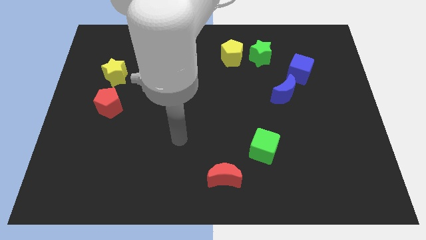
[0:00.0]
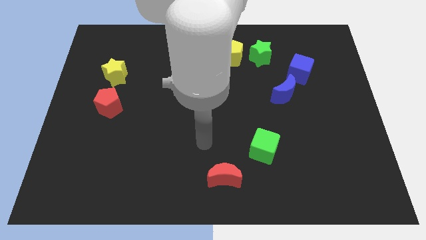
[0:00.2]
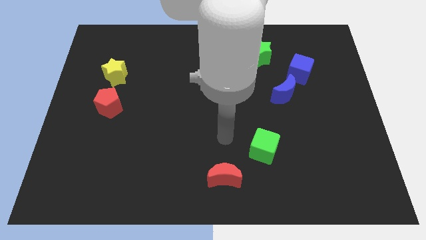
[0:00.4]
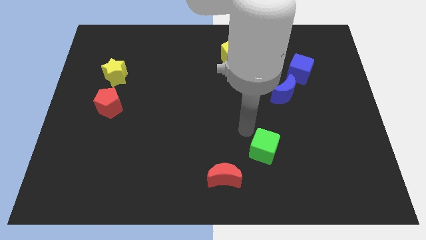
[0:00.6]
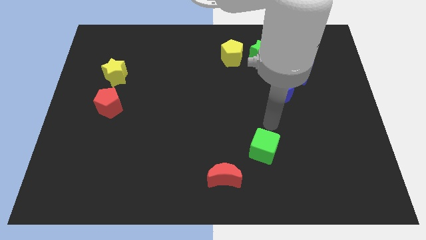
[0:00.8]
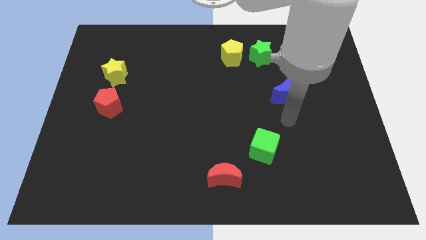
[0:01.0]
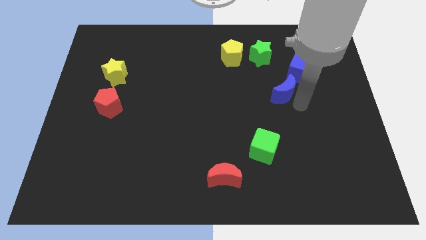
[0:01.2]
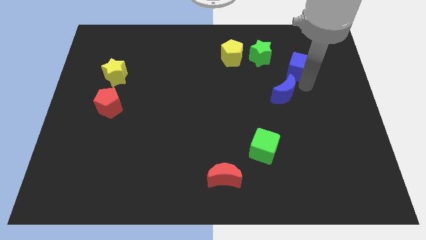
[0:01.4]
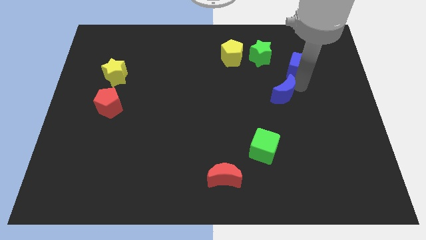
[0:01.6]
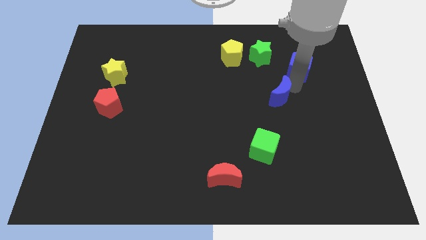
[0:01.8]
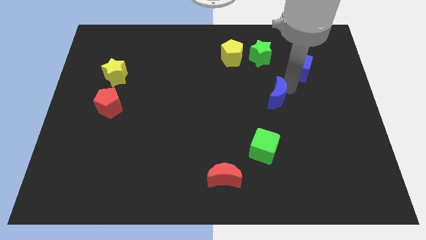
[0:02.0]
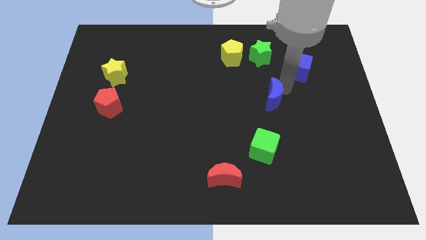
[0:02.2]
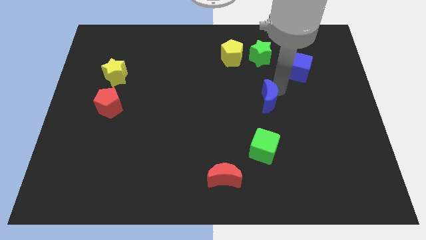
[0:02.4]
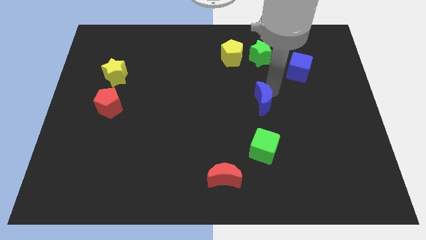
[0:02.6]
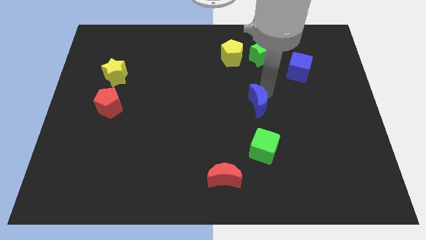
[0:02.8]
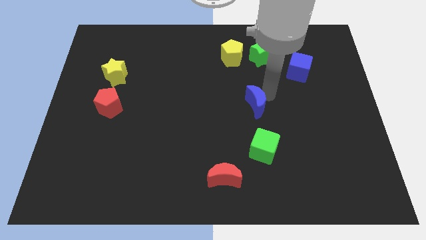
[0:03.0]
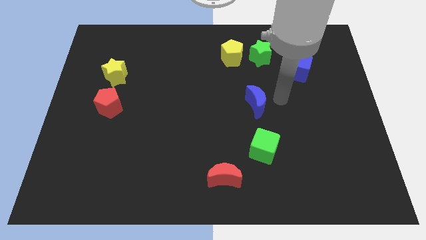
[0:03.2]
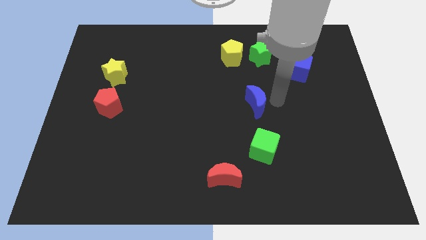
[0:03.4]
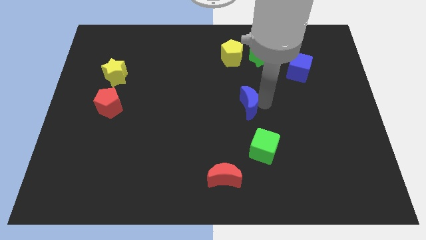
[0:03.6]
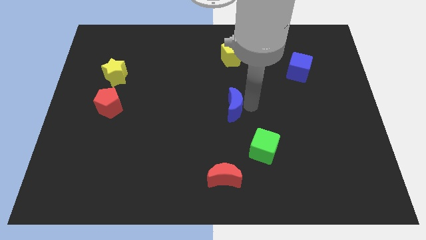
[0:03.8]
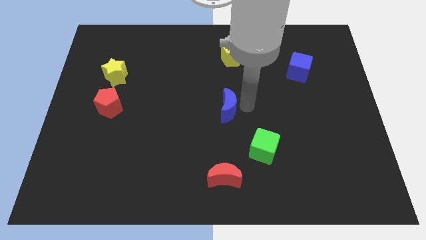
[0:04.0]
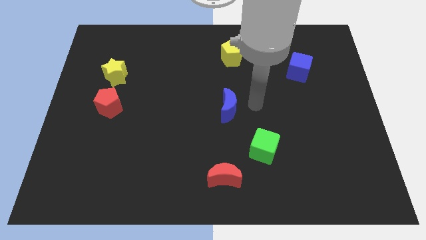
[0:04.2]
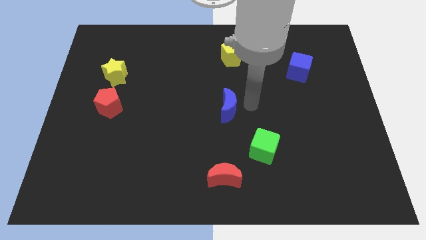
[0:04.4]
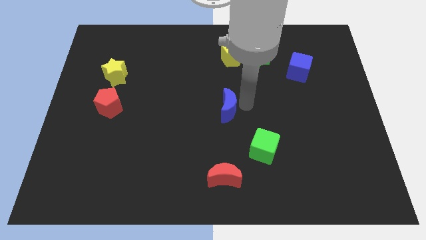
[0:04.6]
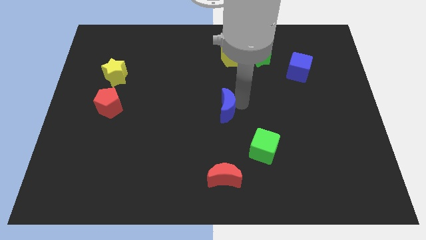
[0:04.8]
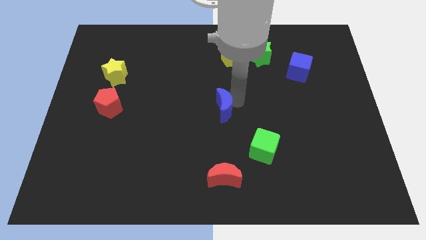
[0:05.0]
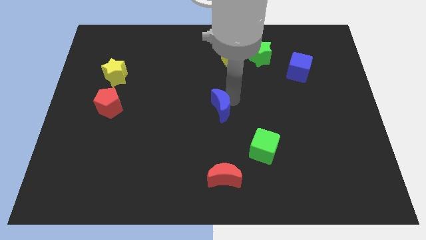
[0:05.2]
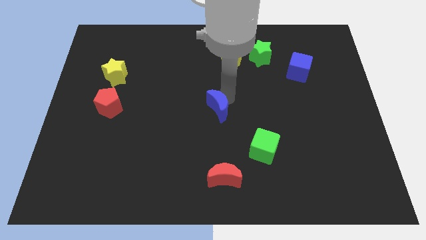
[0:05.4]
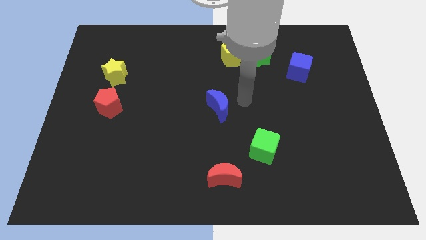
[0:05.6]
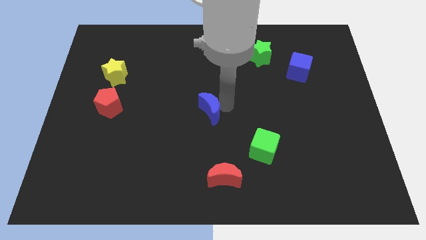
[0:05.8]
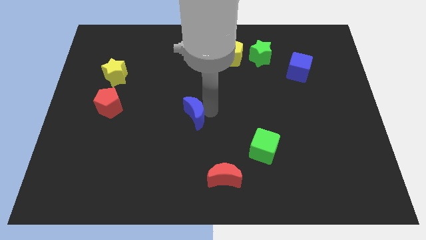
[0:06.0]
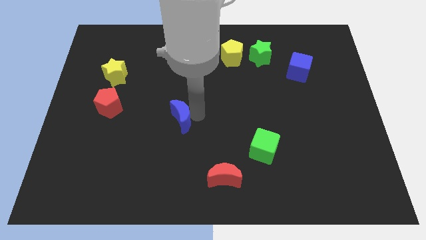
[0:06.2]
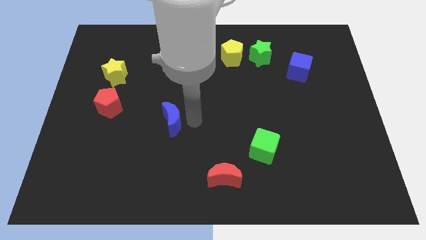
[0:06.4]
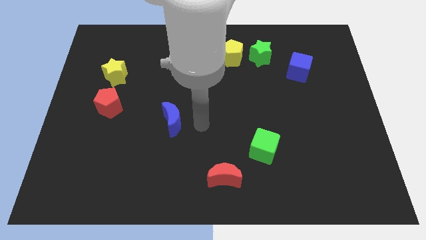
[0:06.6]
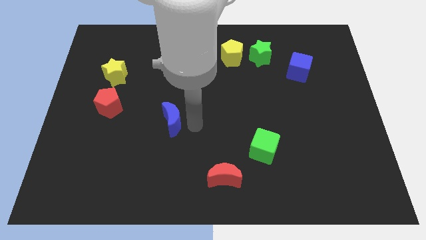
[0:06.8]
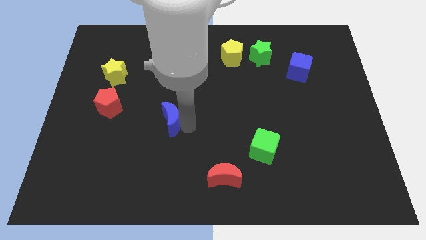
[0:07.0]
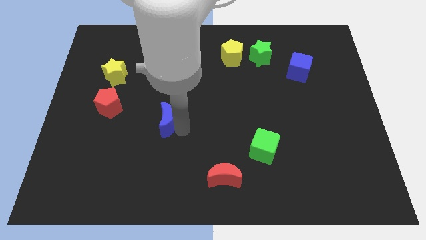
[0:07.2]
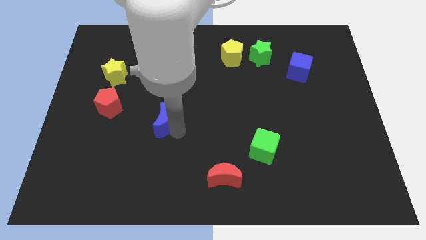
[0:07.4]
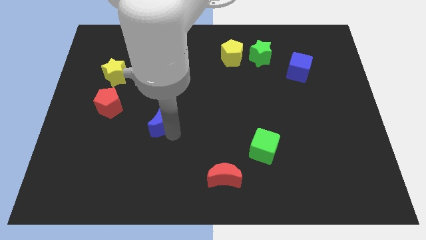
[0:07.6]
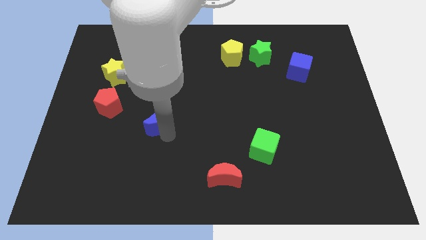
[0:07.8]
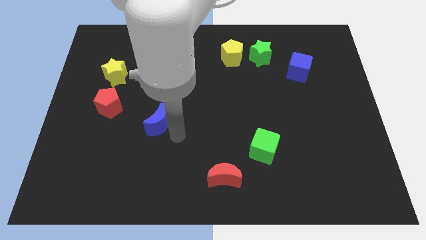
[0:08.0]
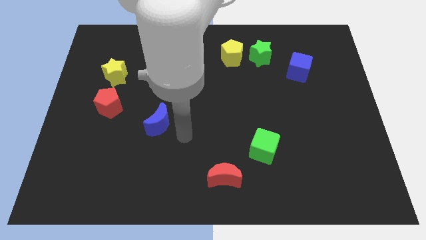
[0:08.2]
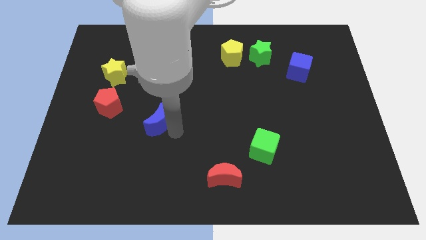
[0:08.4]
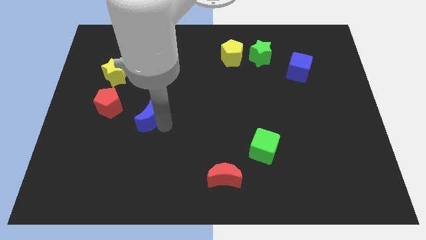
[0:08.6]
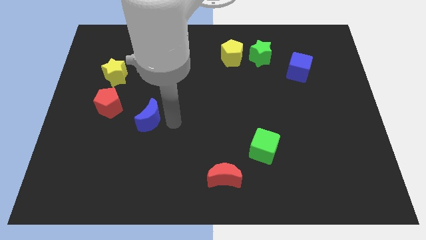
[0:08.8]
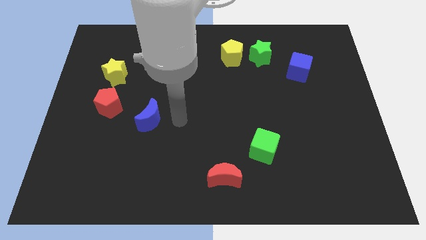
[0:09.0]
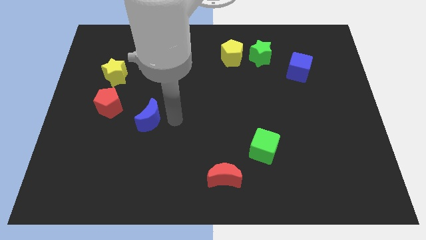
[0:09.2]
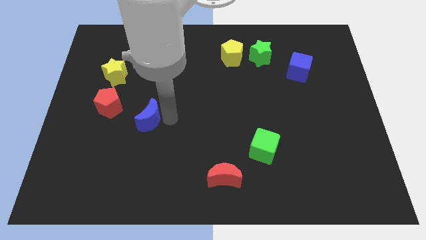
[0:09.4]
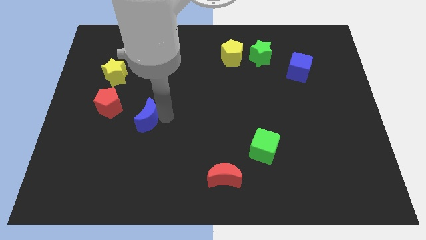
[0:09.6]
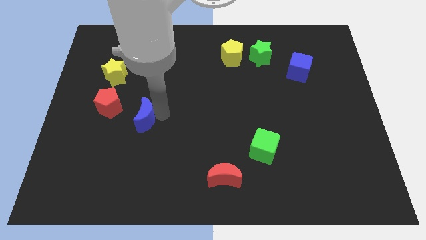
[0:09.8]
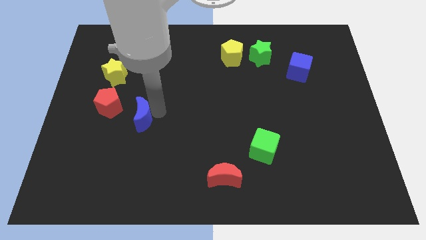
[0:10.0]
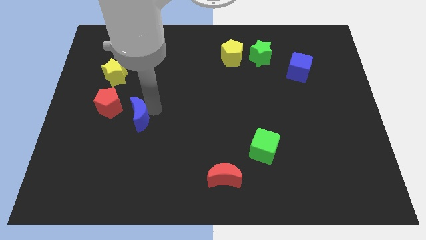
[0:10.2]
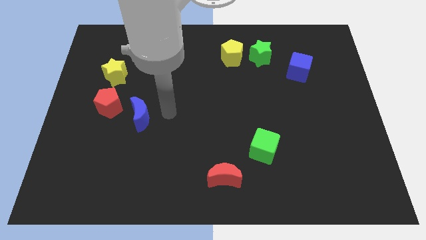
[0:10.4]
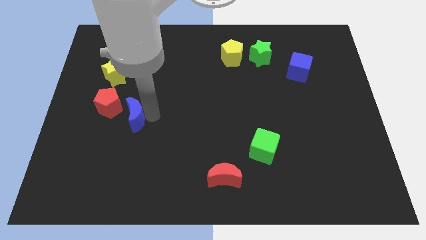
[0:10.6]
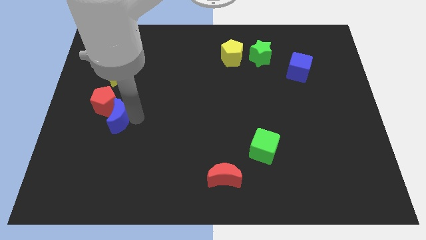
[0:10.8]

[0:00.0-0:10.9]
slide the blue moon to the bottom side of the yellow star
